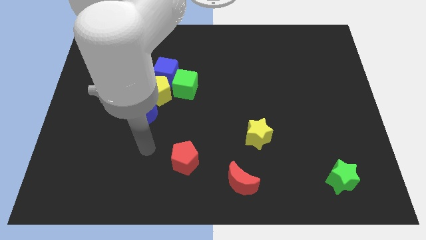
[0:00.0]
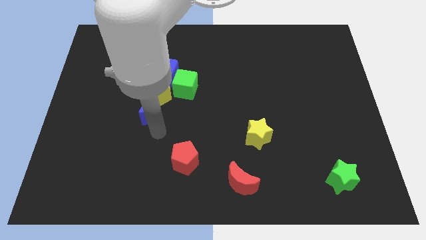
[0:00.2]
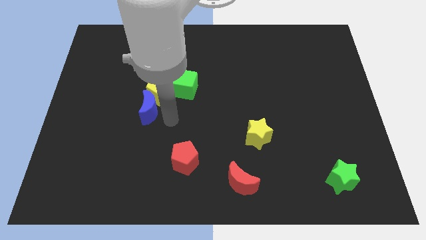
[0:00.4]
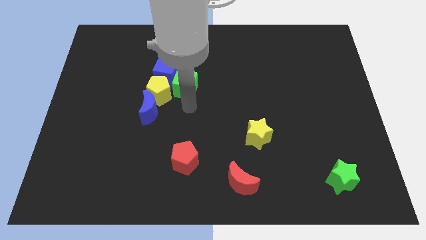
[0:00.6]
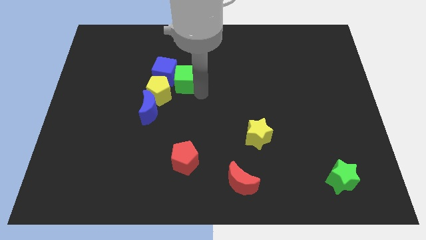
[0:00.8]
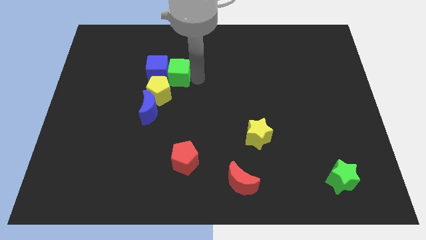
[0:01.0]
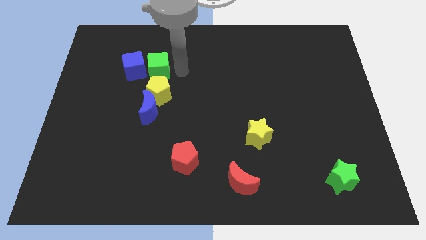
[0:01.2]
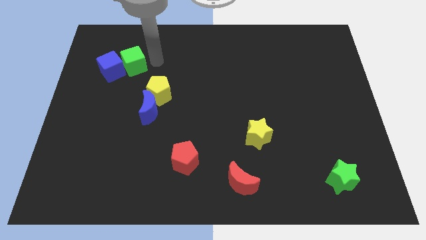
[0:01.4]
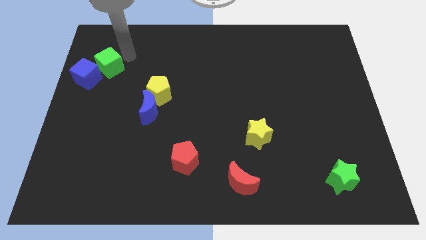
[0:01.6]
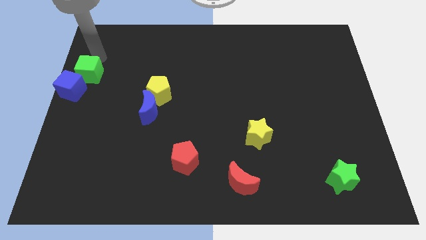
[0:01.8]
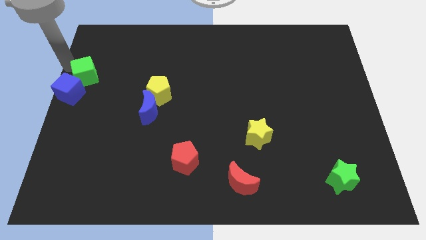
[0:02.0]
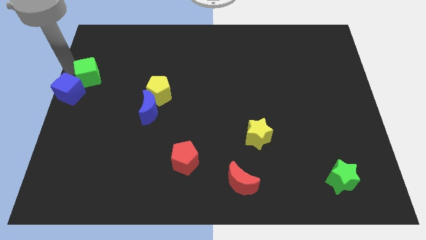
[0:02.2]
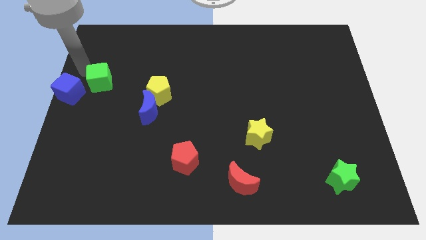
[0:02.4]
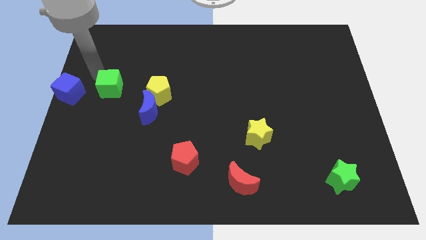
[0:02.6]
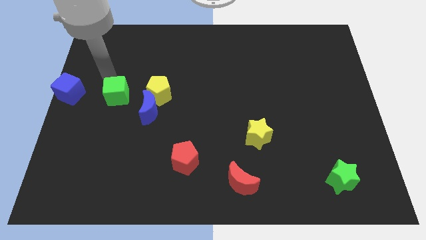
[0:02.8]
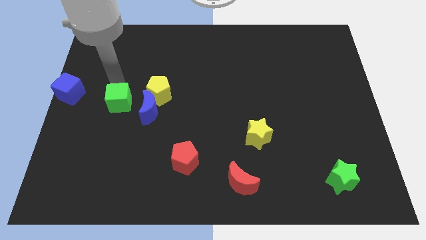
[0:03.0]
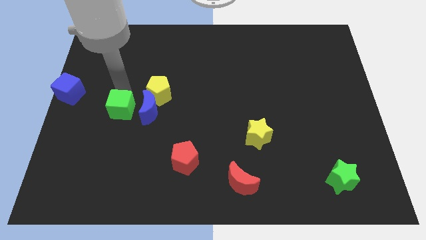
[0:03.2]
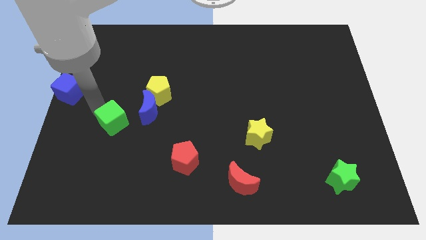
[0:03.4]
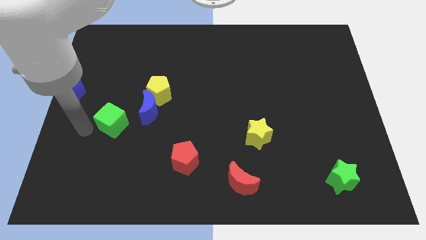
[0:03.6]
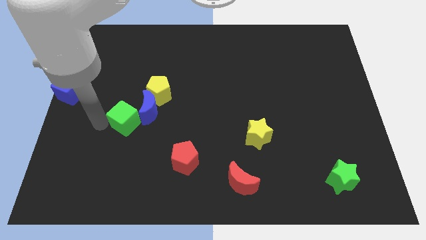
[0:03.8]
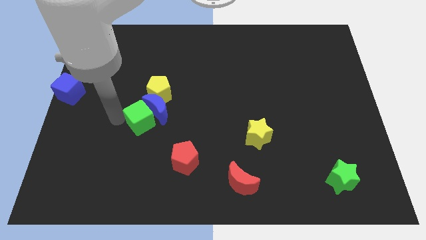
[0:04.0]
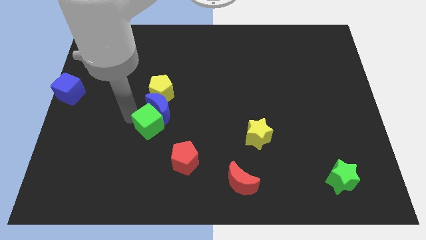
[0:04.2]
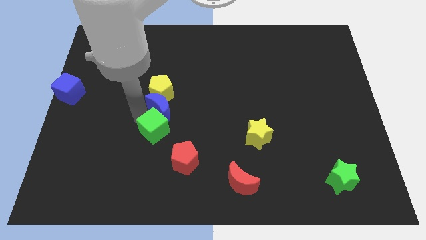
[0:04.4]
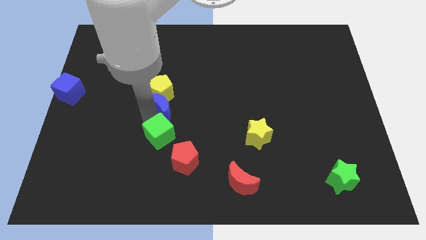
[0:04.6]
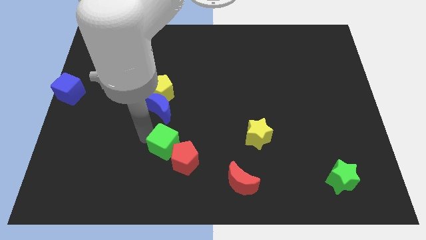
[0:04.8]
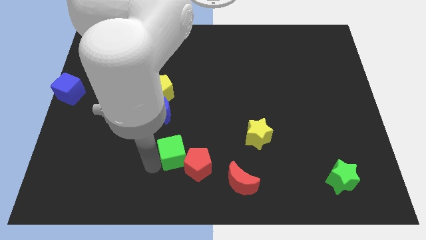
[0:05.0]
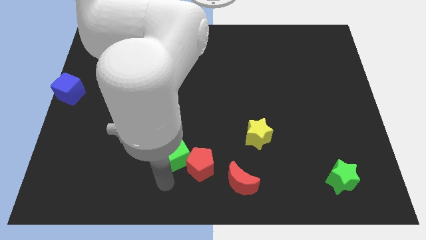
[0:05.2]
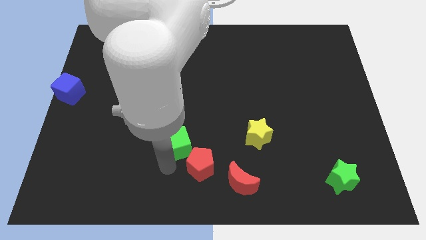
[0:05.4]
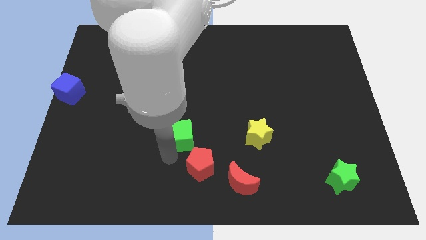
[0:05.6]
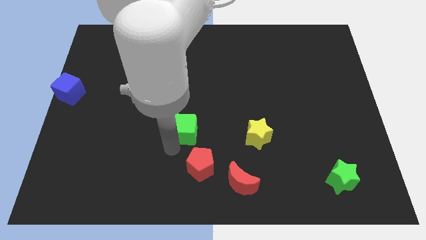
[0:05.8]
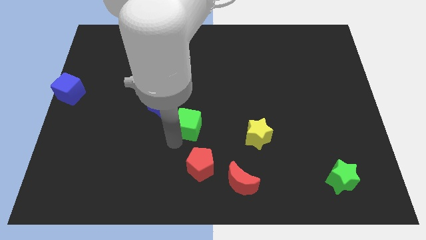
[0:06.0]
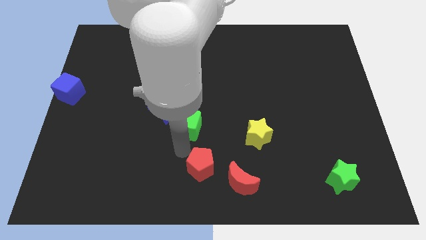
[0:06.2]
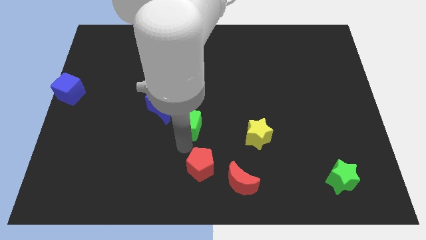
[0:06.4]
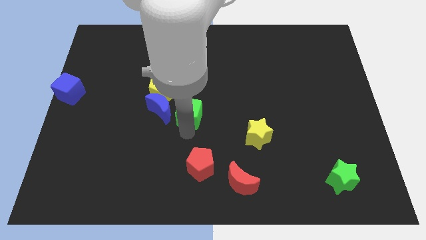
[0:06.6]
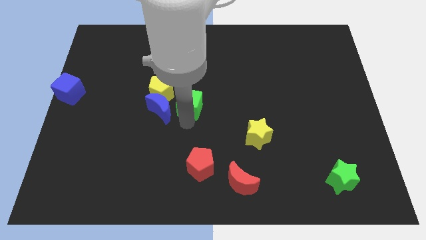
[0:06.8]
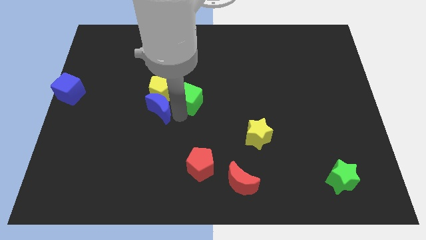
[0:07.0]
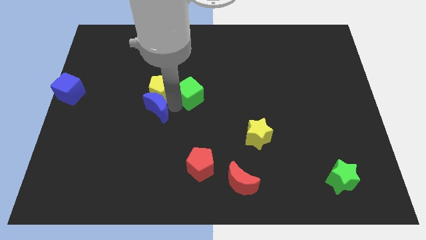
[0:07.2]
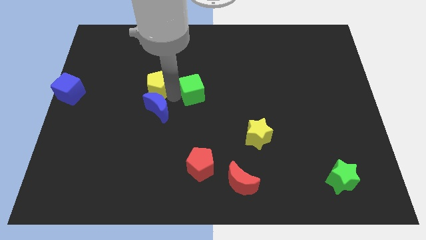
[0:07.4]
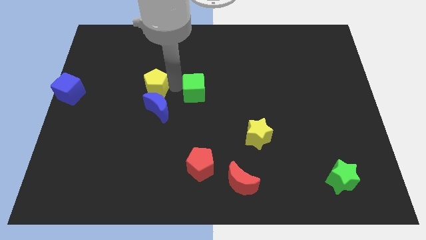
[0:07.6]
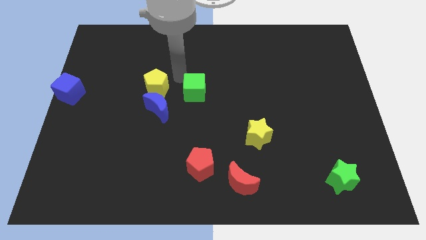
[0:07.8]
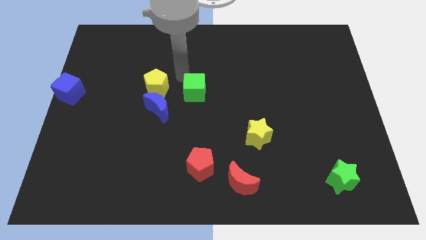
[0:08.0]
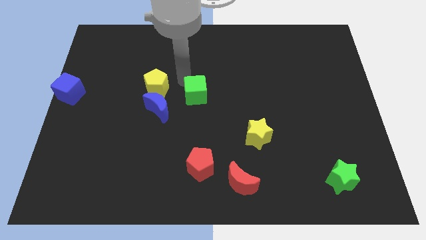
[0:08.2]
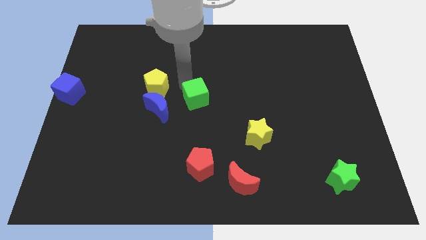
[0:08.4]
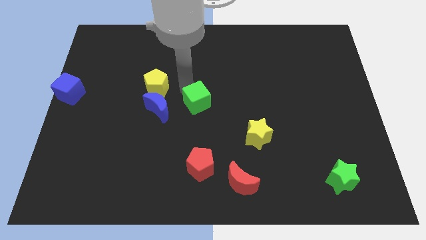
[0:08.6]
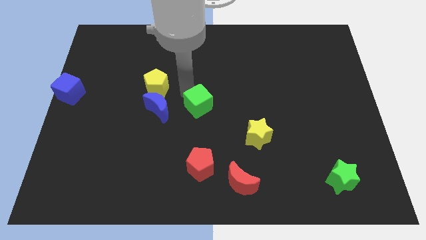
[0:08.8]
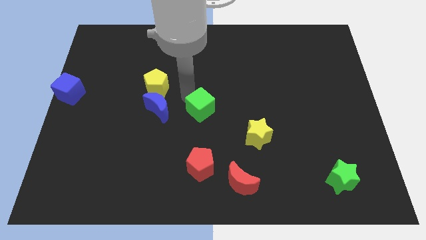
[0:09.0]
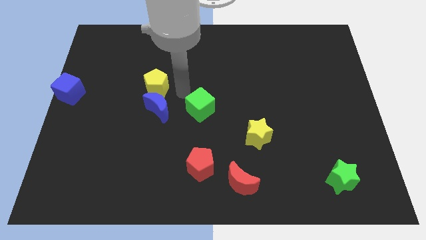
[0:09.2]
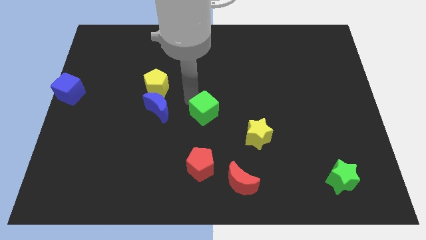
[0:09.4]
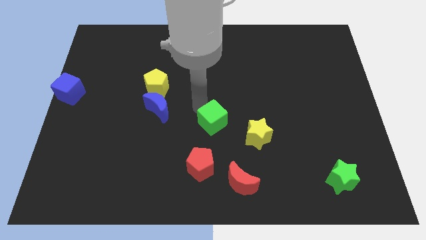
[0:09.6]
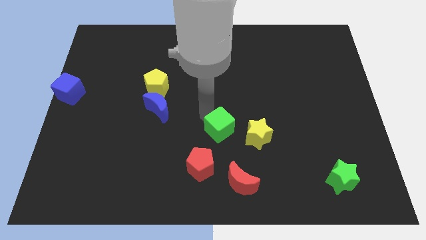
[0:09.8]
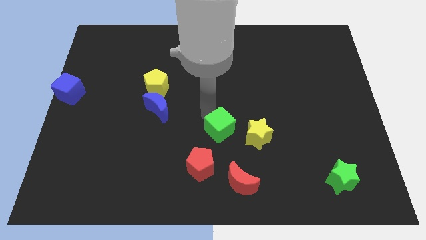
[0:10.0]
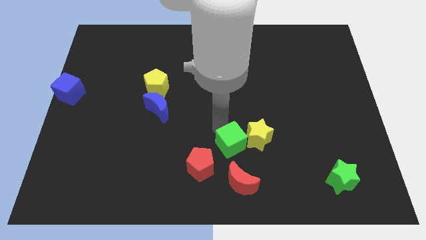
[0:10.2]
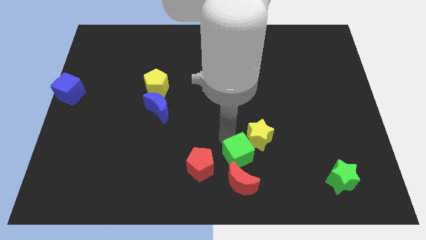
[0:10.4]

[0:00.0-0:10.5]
slide the green cube to the bottom side of the yellow star

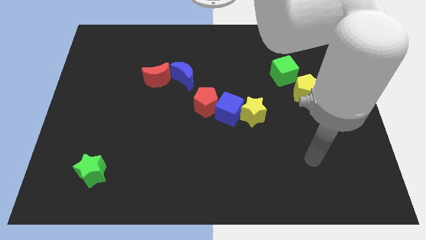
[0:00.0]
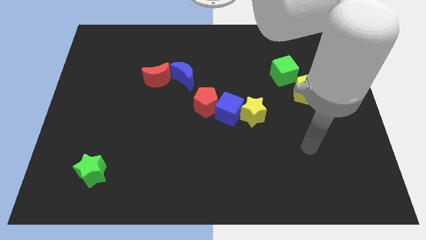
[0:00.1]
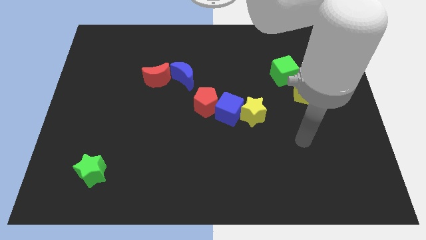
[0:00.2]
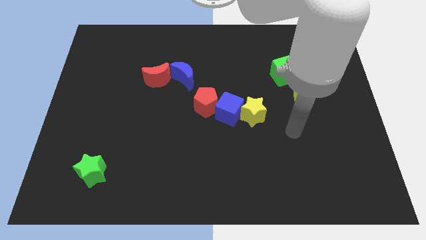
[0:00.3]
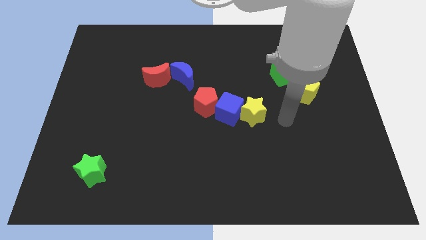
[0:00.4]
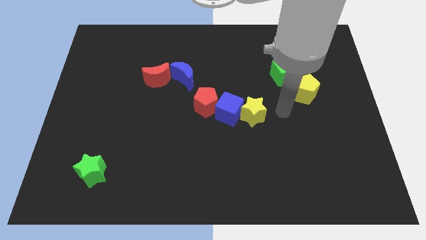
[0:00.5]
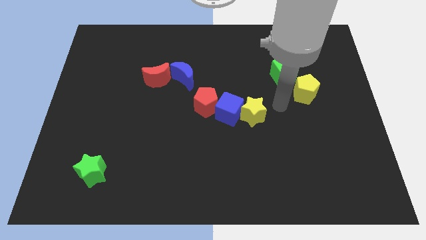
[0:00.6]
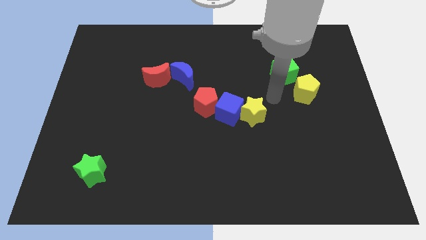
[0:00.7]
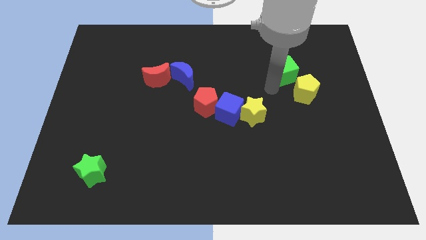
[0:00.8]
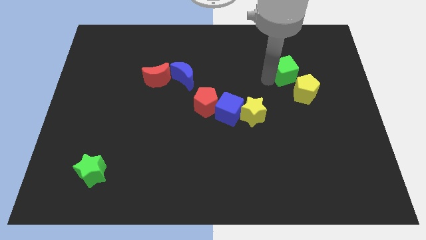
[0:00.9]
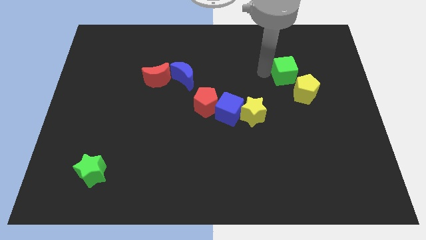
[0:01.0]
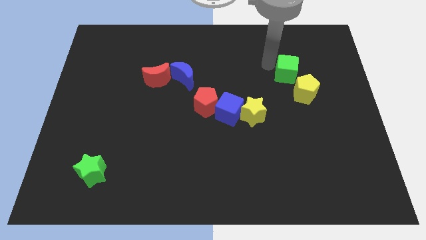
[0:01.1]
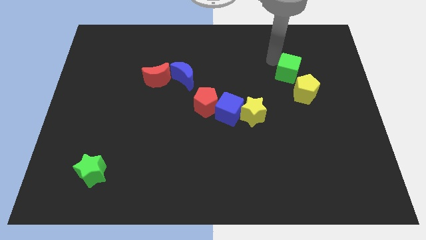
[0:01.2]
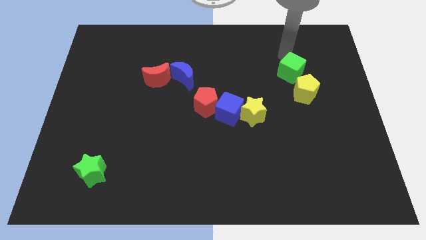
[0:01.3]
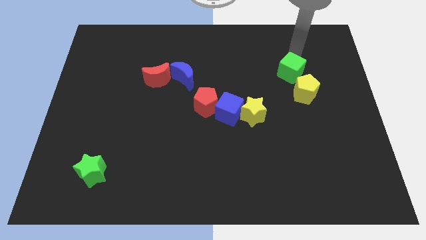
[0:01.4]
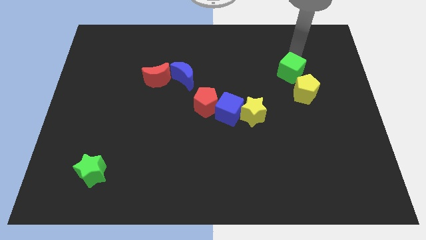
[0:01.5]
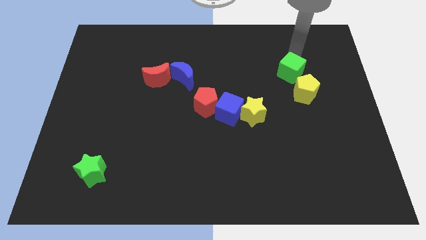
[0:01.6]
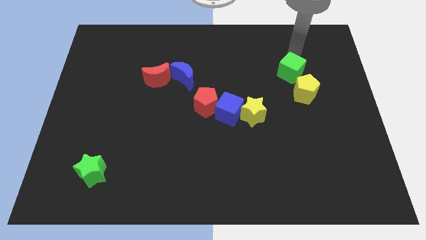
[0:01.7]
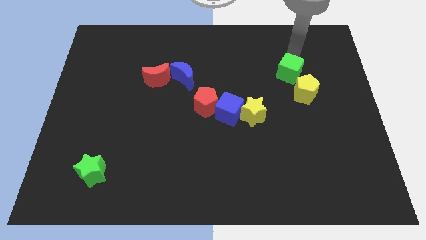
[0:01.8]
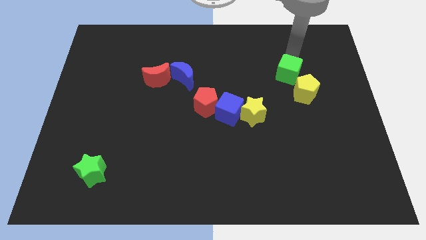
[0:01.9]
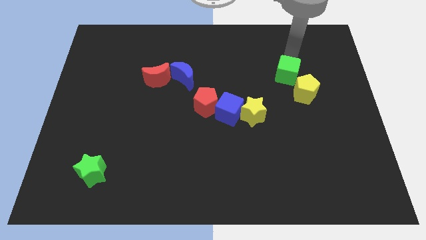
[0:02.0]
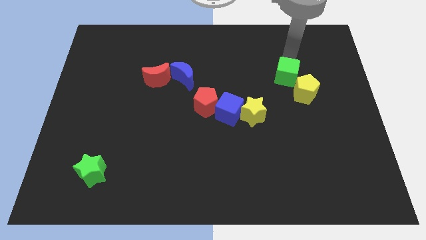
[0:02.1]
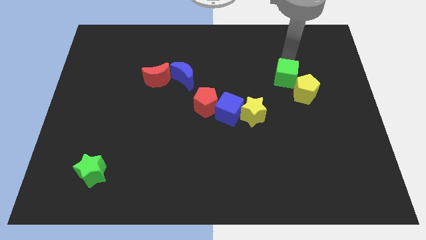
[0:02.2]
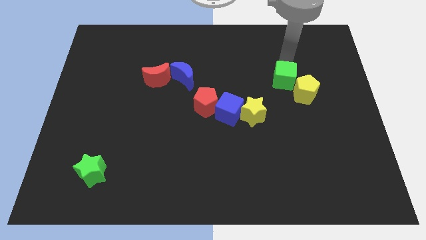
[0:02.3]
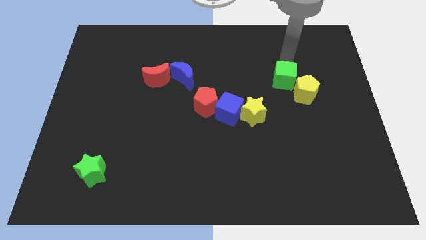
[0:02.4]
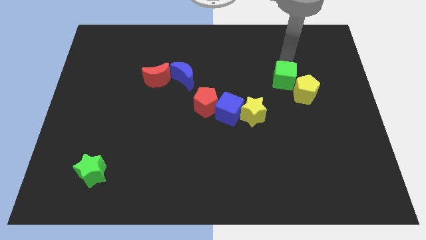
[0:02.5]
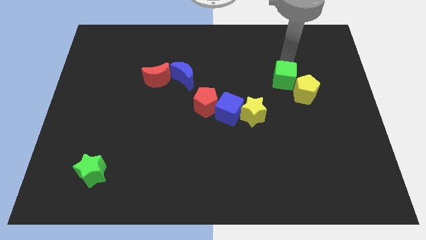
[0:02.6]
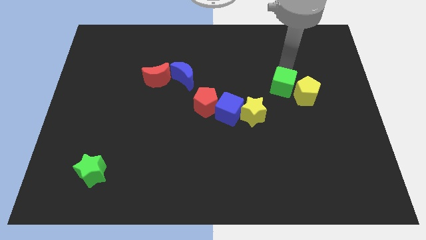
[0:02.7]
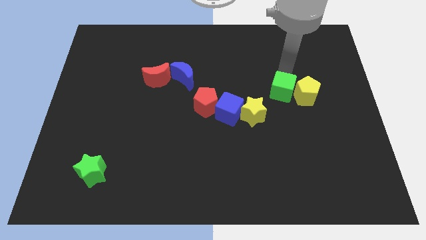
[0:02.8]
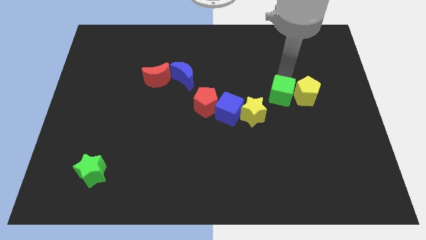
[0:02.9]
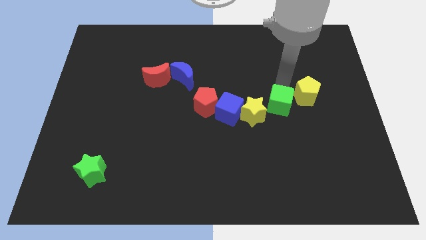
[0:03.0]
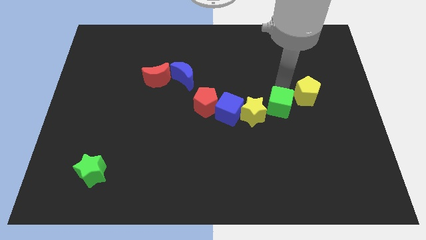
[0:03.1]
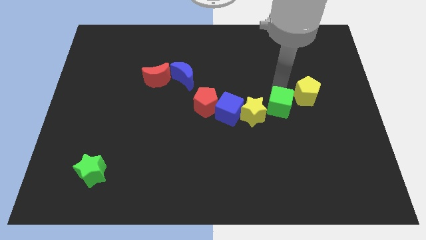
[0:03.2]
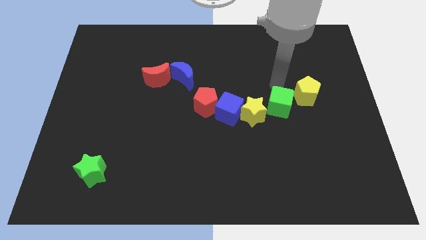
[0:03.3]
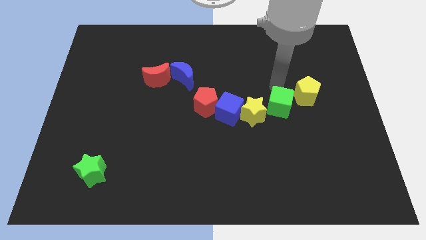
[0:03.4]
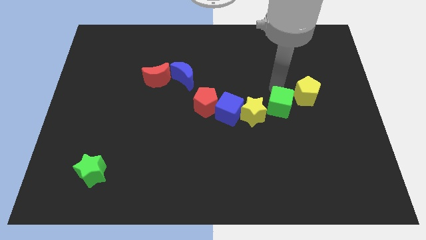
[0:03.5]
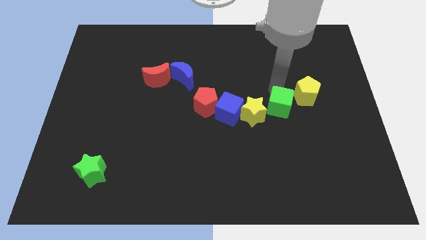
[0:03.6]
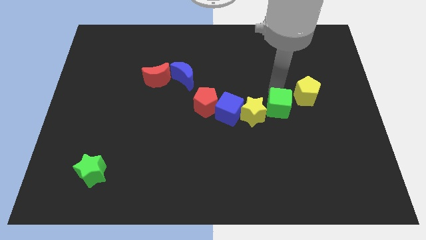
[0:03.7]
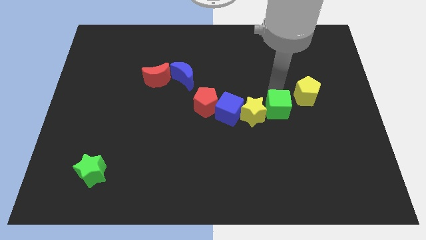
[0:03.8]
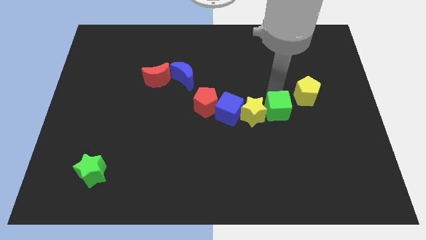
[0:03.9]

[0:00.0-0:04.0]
slide the green cube diagonally down and to the right of the yellow star
